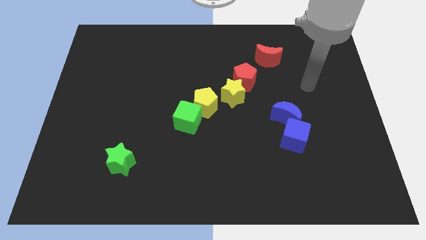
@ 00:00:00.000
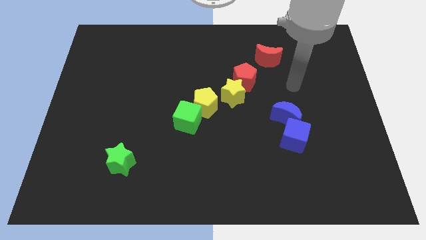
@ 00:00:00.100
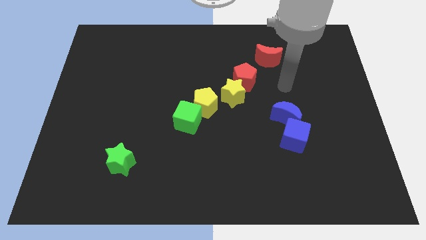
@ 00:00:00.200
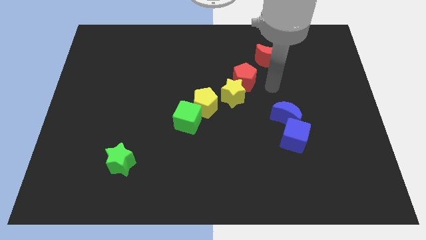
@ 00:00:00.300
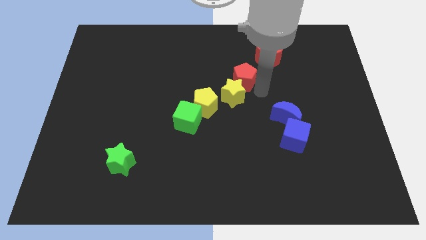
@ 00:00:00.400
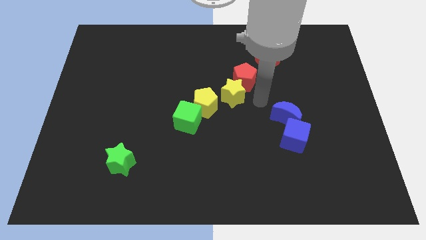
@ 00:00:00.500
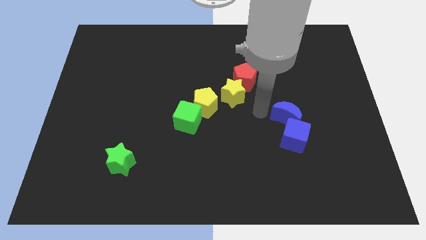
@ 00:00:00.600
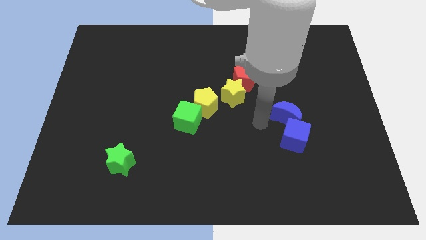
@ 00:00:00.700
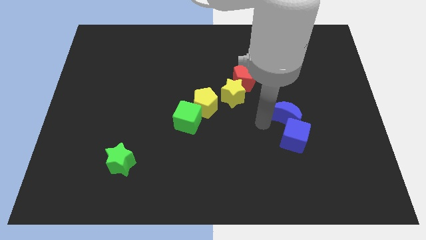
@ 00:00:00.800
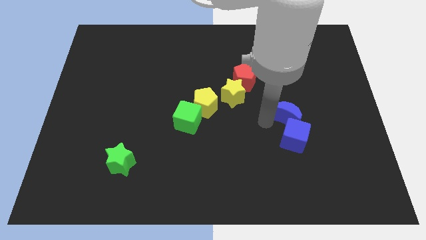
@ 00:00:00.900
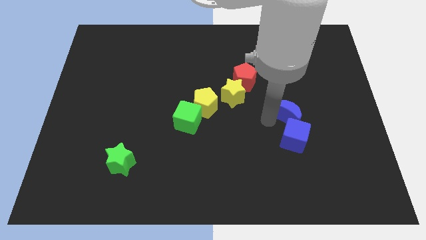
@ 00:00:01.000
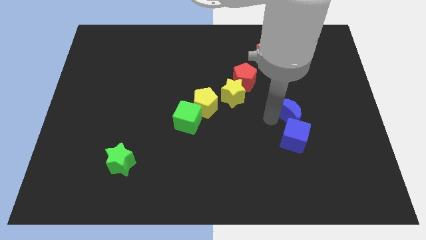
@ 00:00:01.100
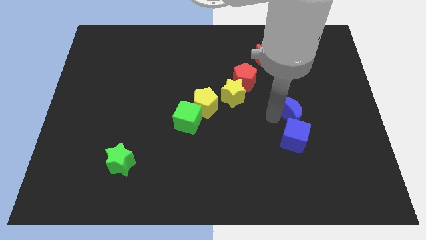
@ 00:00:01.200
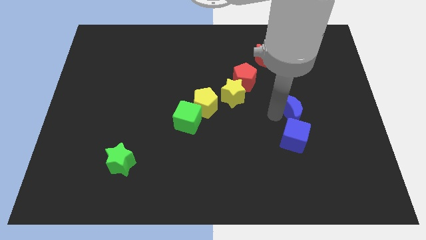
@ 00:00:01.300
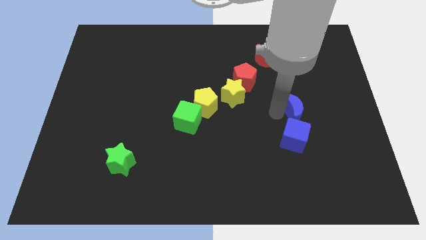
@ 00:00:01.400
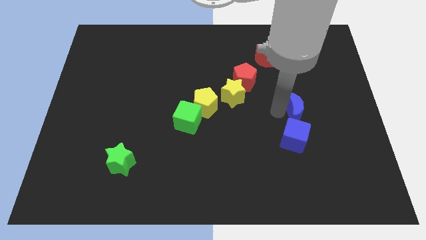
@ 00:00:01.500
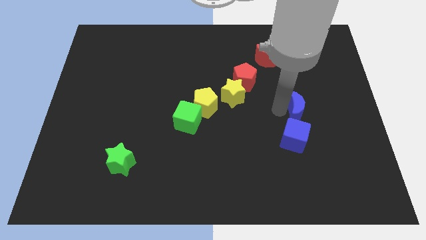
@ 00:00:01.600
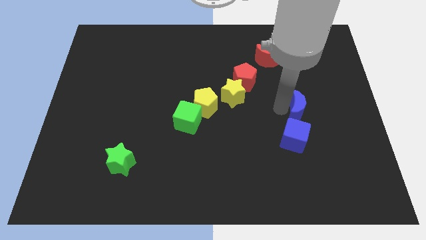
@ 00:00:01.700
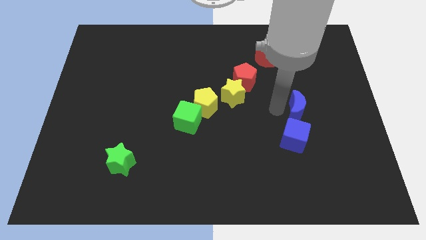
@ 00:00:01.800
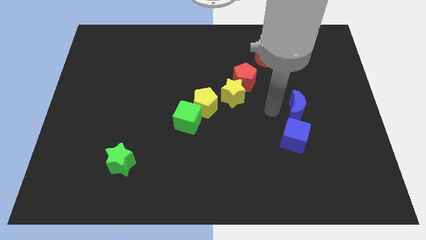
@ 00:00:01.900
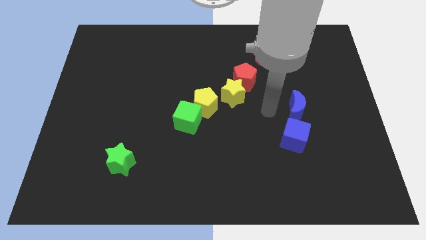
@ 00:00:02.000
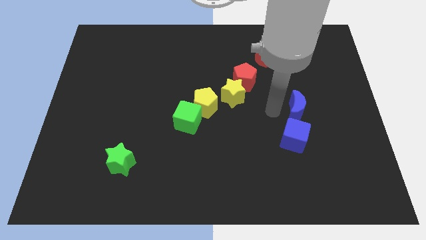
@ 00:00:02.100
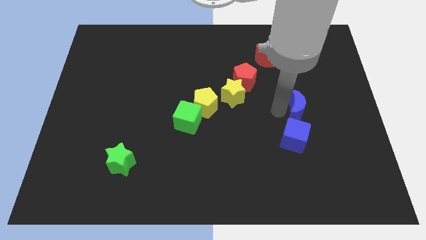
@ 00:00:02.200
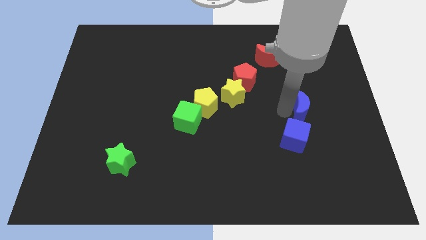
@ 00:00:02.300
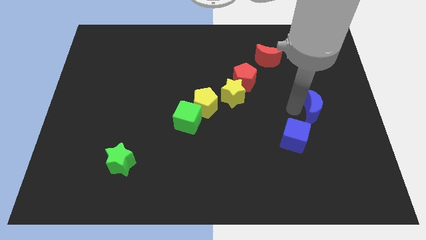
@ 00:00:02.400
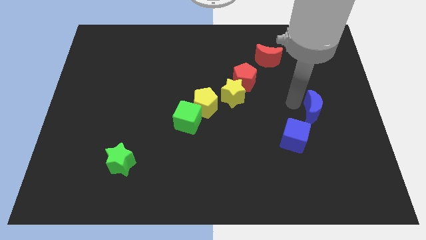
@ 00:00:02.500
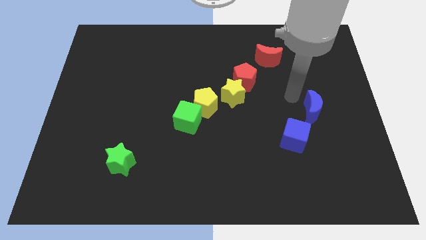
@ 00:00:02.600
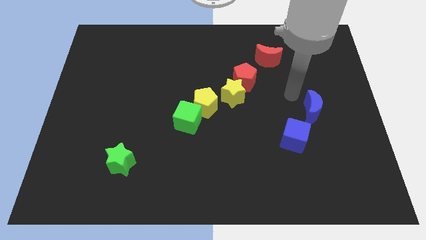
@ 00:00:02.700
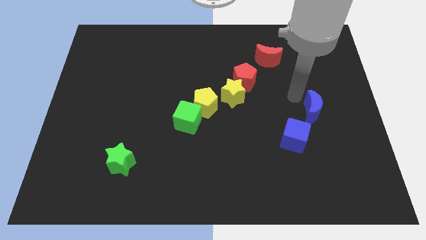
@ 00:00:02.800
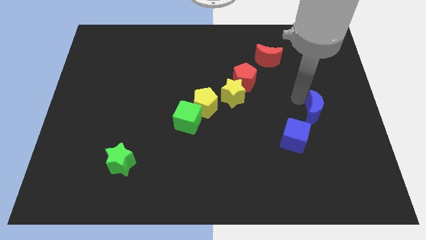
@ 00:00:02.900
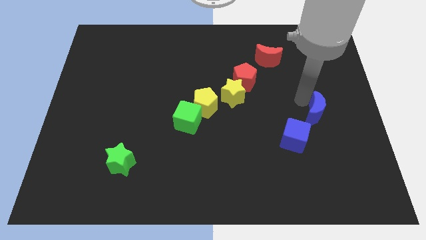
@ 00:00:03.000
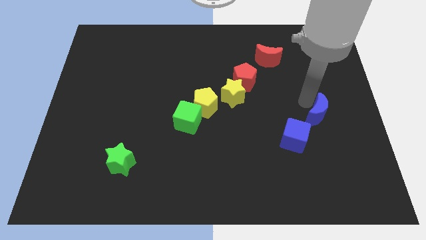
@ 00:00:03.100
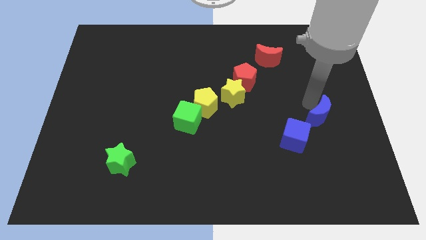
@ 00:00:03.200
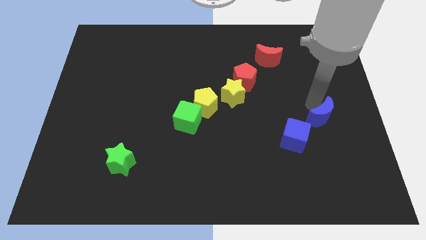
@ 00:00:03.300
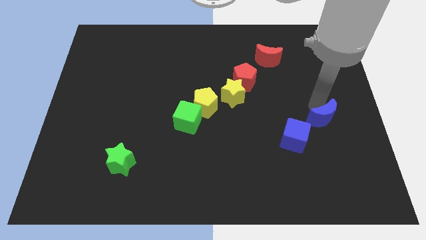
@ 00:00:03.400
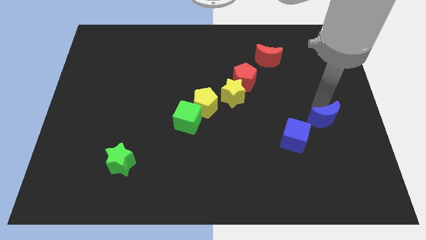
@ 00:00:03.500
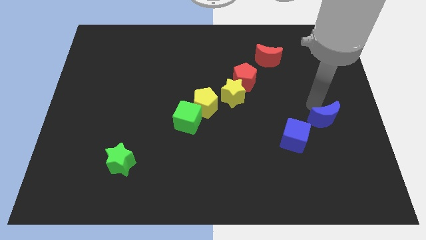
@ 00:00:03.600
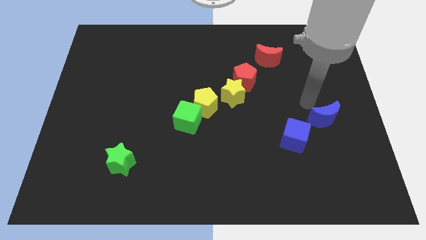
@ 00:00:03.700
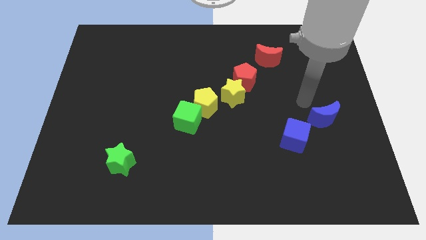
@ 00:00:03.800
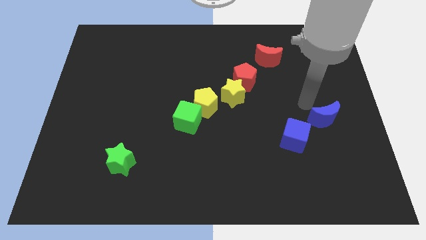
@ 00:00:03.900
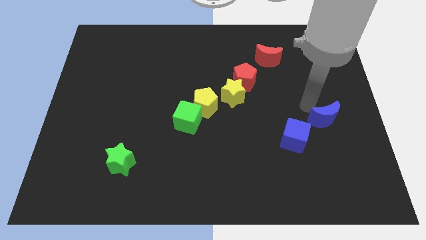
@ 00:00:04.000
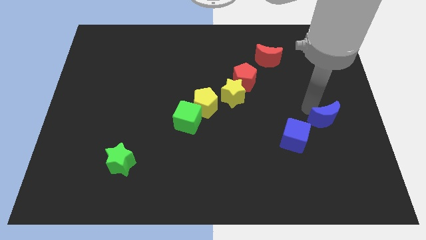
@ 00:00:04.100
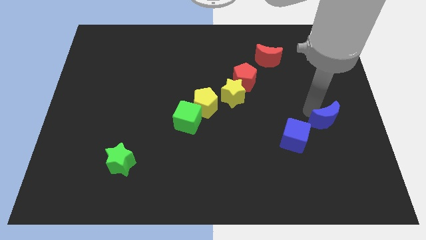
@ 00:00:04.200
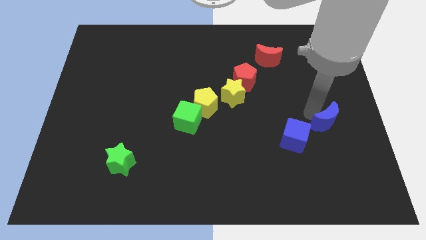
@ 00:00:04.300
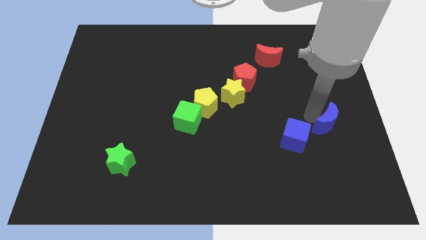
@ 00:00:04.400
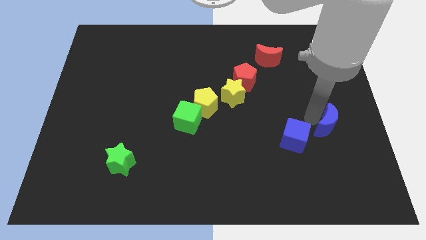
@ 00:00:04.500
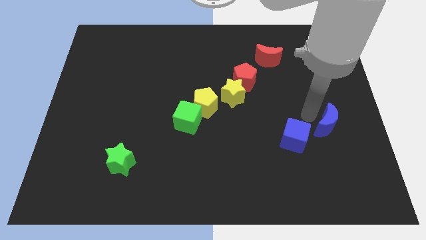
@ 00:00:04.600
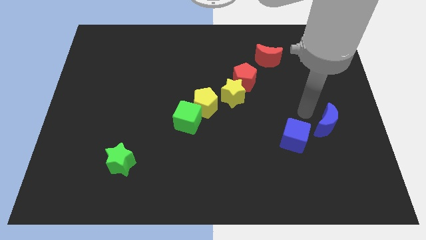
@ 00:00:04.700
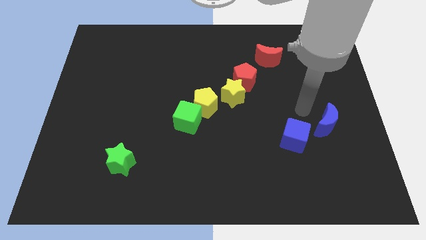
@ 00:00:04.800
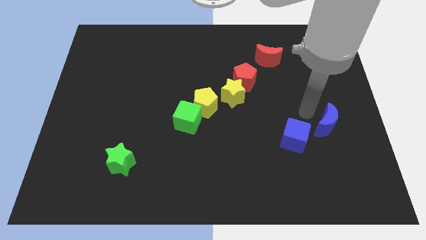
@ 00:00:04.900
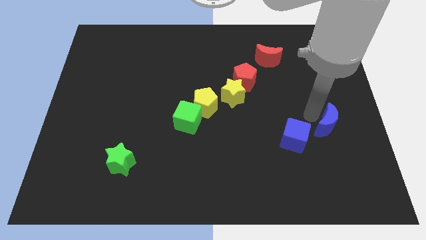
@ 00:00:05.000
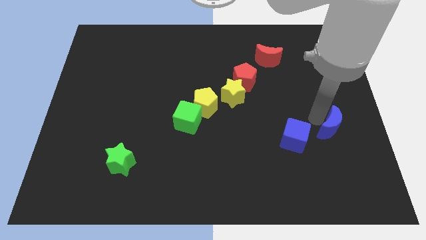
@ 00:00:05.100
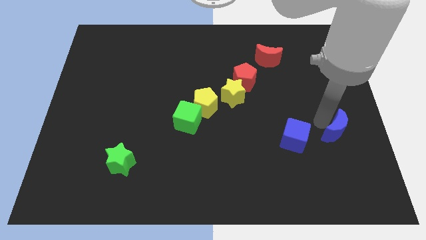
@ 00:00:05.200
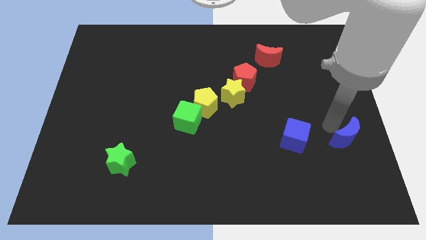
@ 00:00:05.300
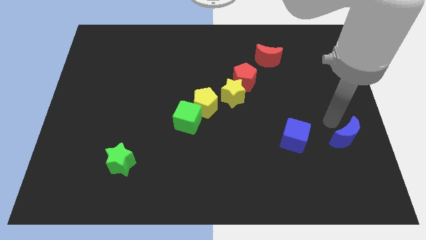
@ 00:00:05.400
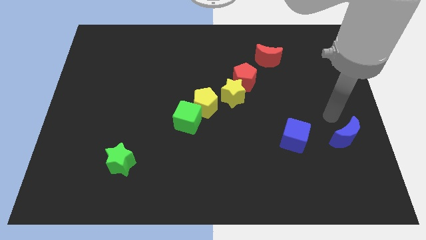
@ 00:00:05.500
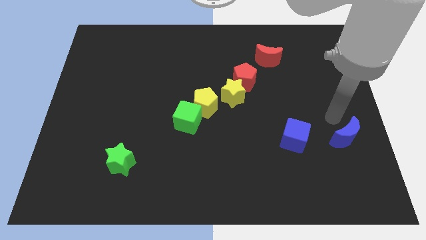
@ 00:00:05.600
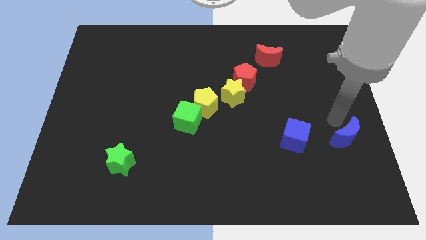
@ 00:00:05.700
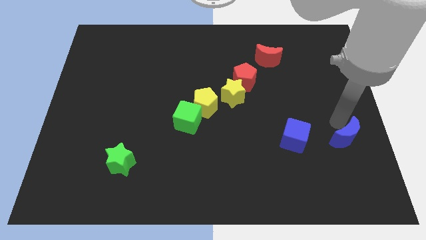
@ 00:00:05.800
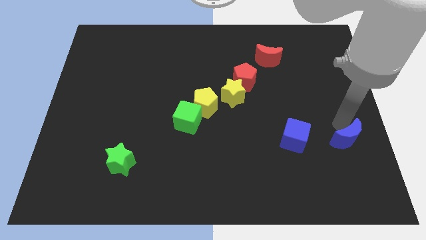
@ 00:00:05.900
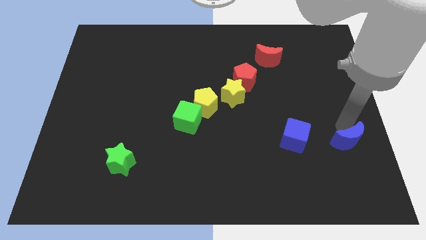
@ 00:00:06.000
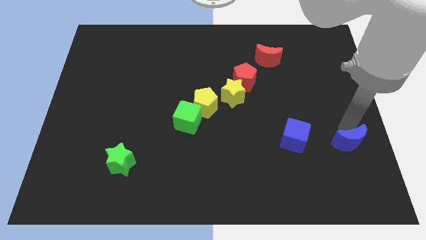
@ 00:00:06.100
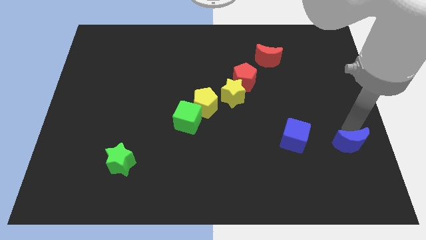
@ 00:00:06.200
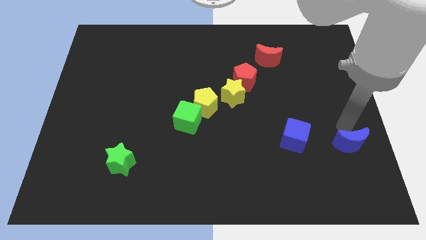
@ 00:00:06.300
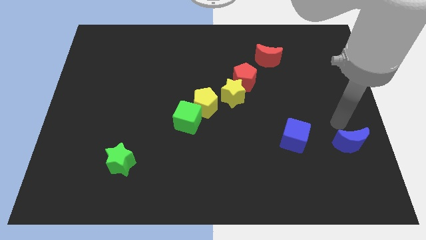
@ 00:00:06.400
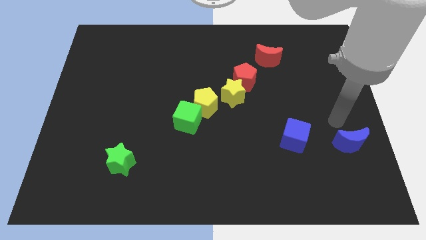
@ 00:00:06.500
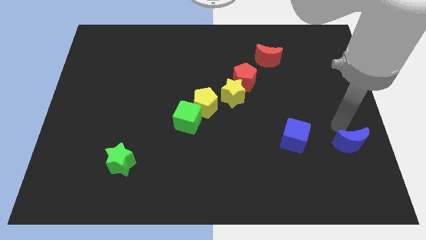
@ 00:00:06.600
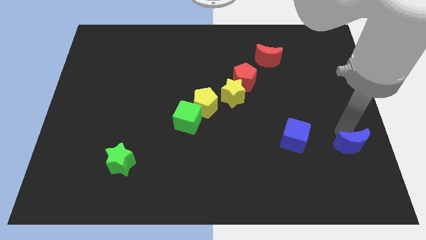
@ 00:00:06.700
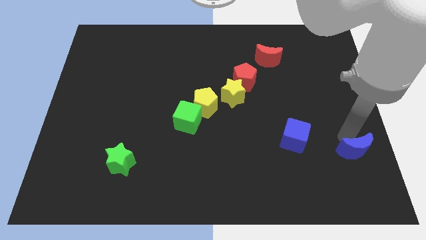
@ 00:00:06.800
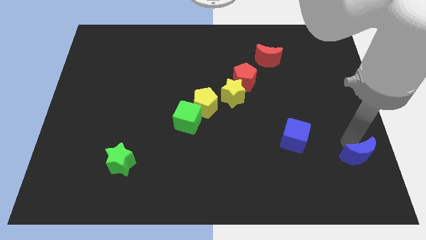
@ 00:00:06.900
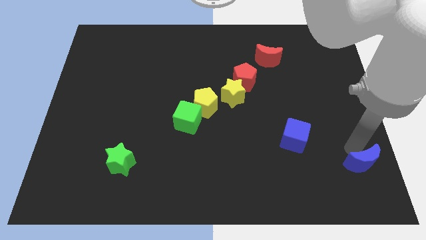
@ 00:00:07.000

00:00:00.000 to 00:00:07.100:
put the blue moon to the bottom right of the board
